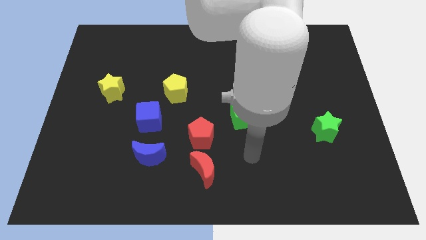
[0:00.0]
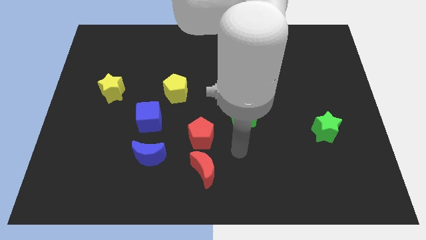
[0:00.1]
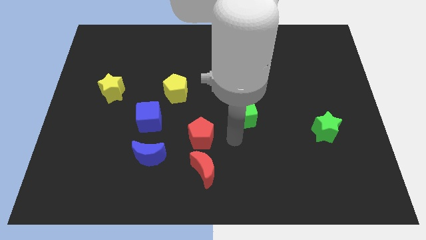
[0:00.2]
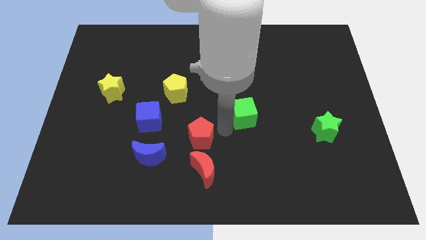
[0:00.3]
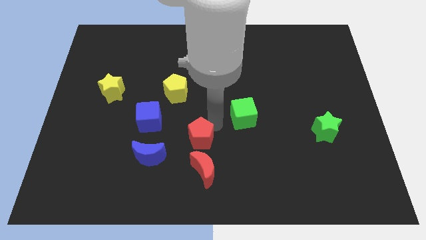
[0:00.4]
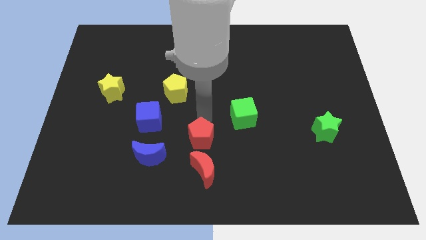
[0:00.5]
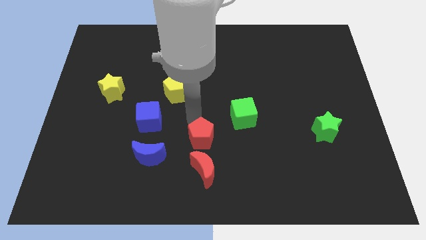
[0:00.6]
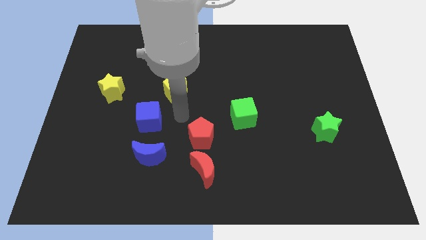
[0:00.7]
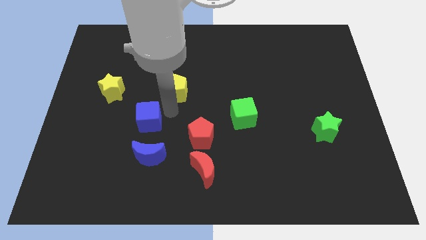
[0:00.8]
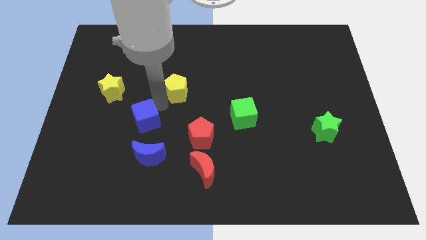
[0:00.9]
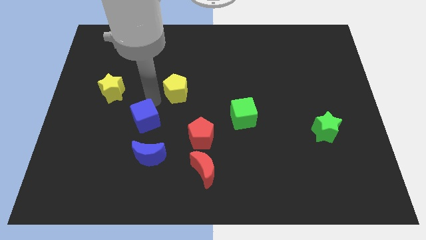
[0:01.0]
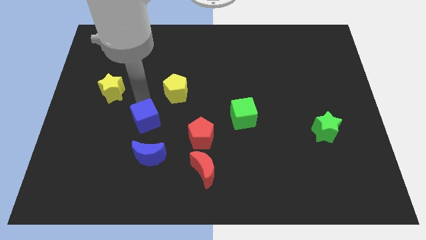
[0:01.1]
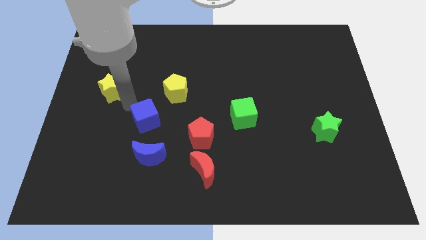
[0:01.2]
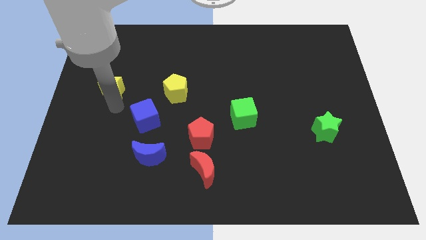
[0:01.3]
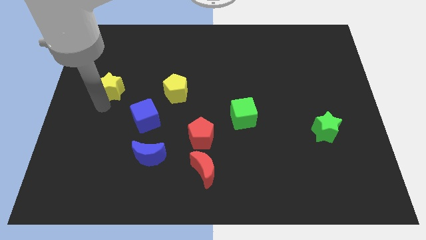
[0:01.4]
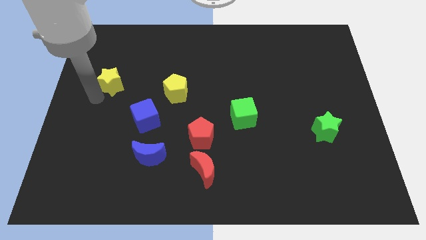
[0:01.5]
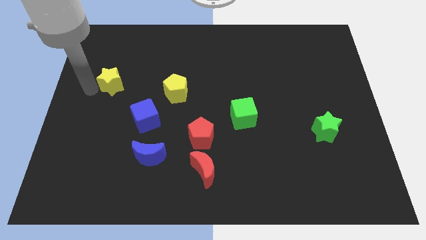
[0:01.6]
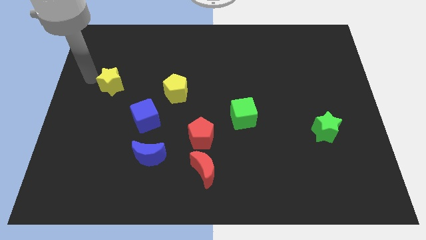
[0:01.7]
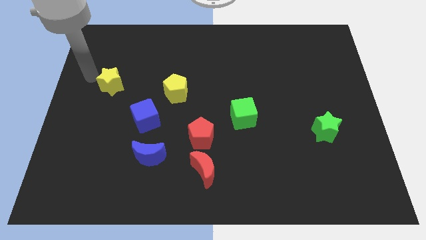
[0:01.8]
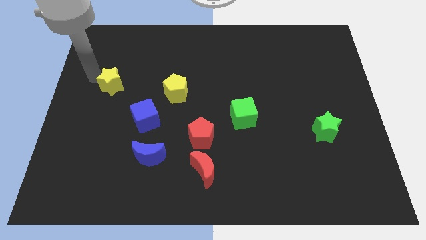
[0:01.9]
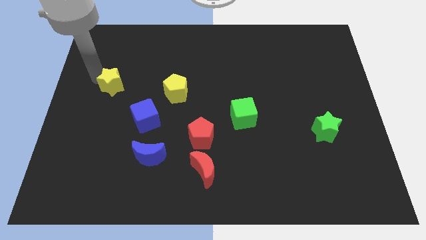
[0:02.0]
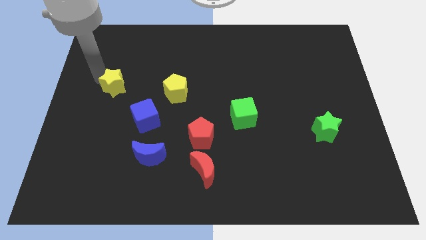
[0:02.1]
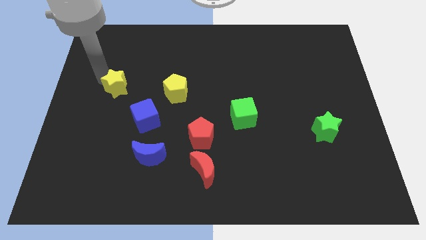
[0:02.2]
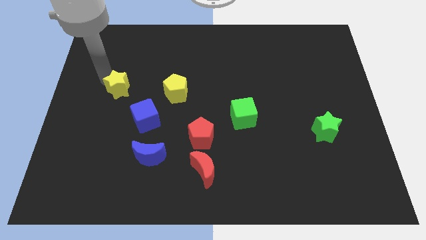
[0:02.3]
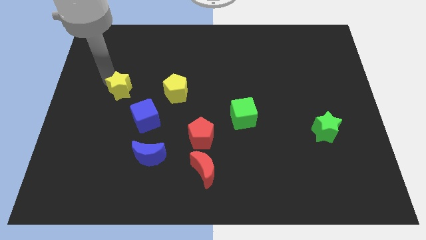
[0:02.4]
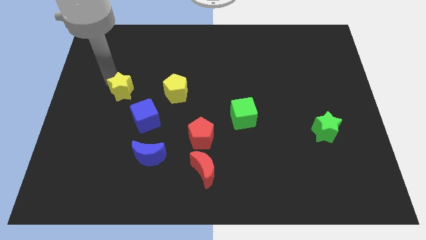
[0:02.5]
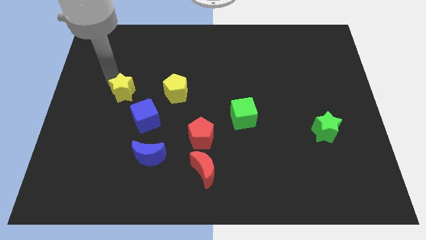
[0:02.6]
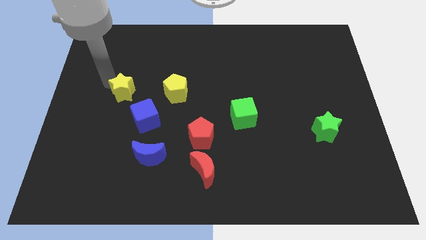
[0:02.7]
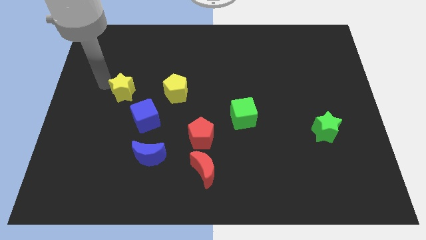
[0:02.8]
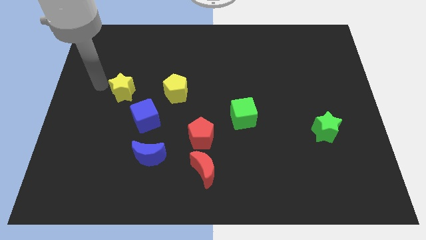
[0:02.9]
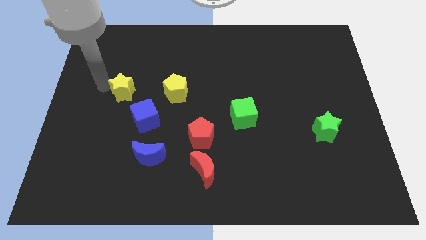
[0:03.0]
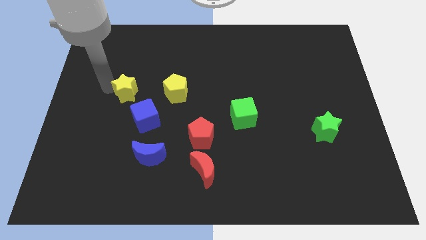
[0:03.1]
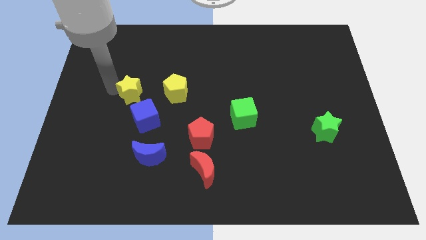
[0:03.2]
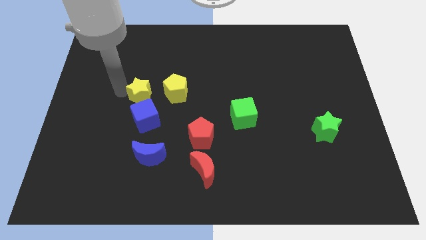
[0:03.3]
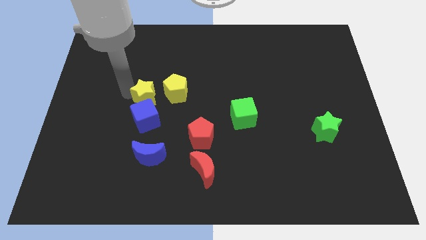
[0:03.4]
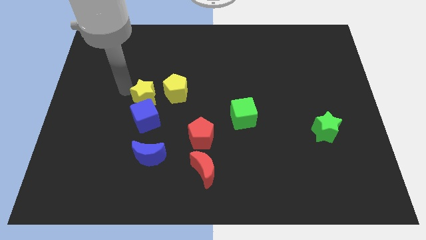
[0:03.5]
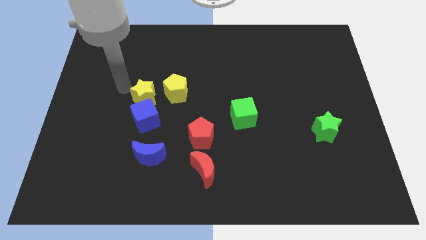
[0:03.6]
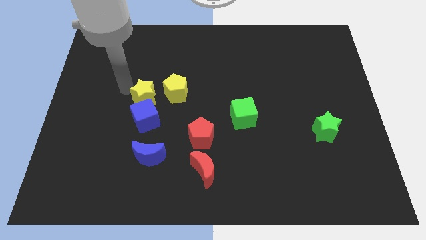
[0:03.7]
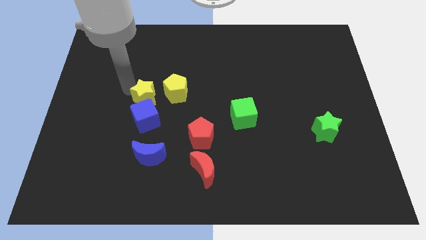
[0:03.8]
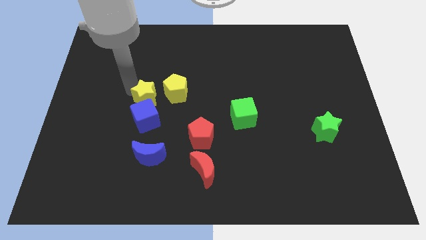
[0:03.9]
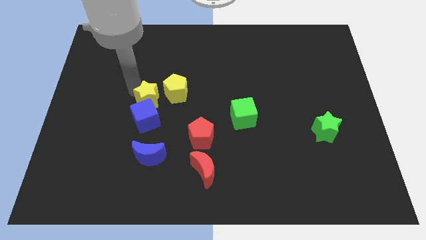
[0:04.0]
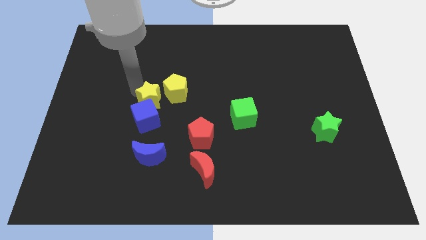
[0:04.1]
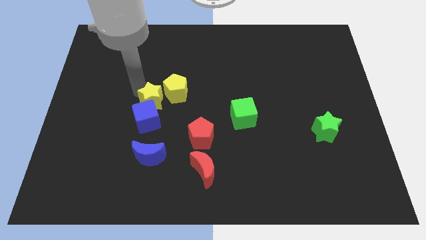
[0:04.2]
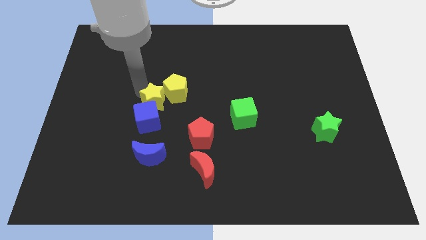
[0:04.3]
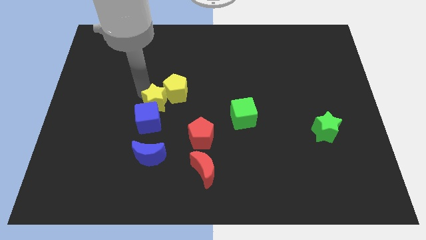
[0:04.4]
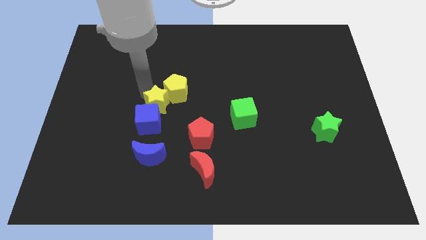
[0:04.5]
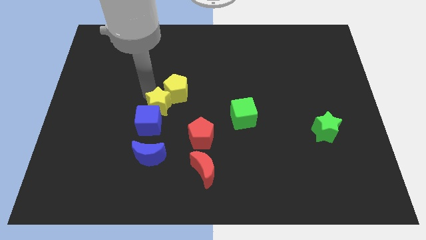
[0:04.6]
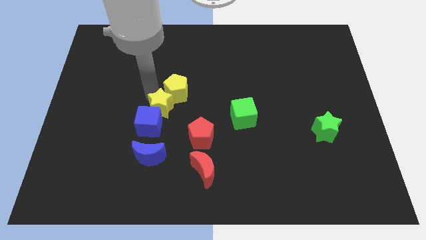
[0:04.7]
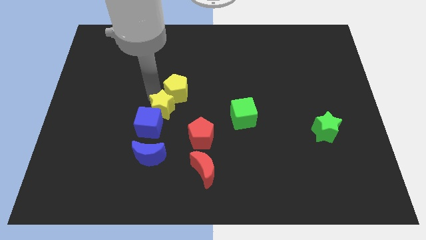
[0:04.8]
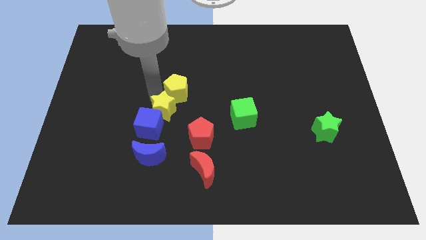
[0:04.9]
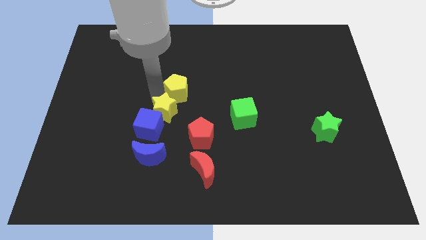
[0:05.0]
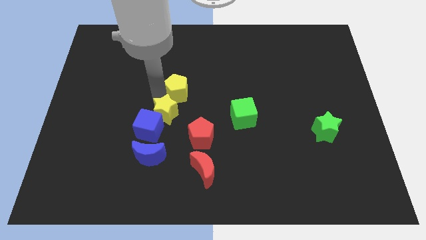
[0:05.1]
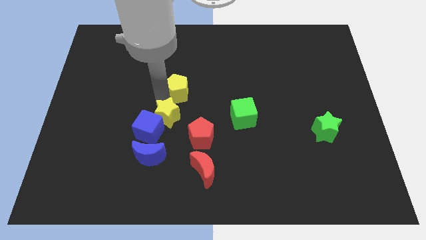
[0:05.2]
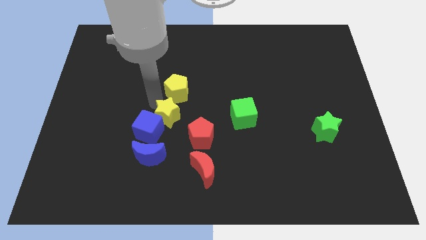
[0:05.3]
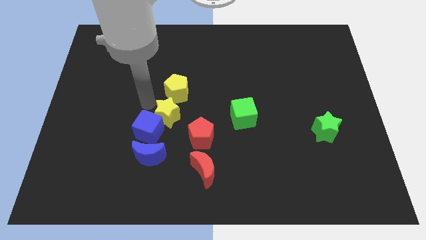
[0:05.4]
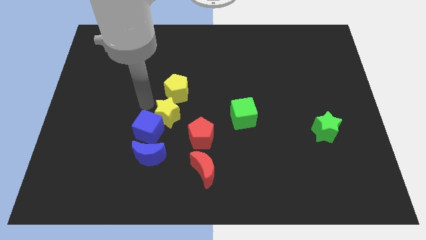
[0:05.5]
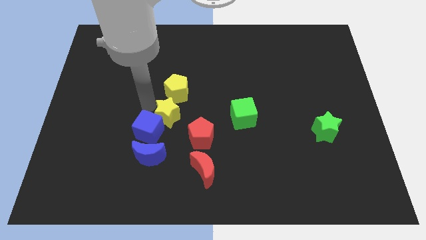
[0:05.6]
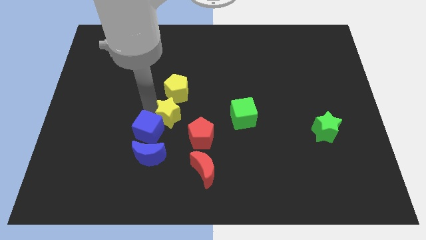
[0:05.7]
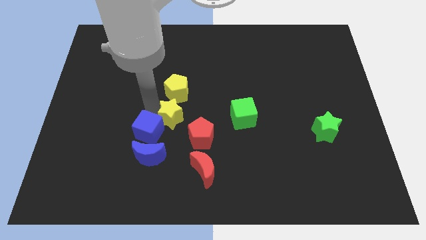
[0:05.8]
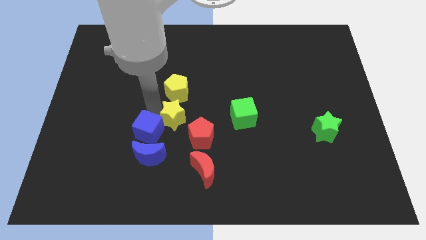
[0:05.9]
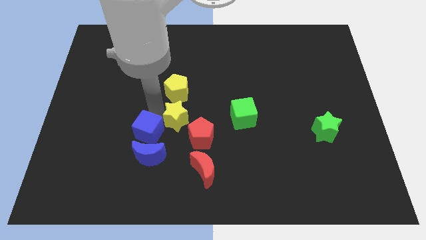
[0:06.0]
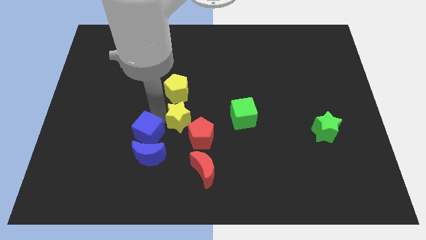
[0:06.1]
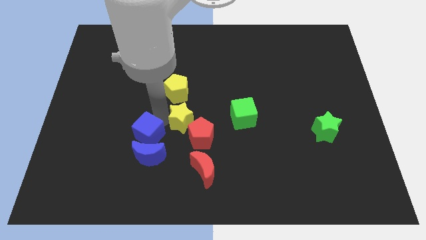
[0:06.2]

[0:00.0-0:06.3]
slide the yellow star to the red pentagon

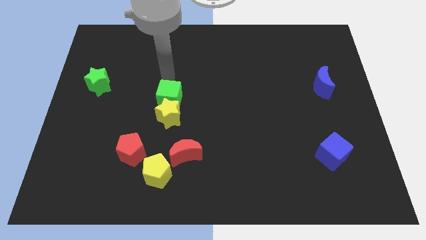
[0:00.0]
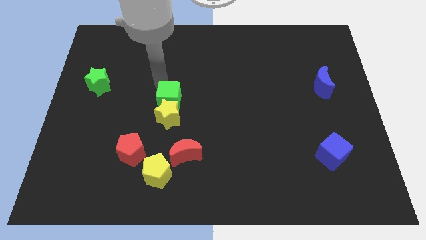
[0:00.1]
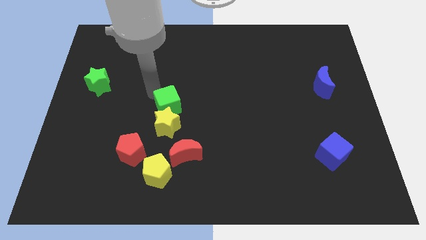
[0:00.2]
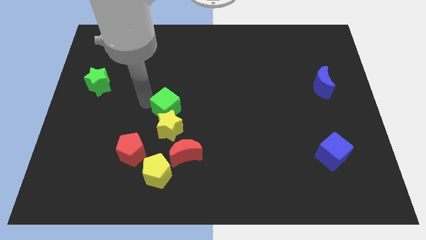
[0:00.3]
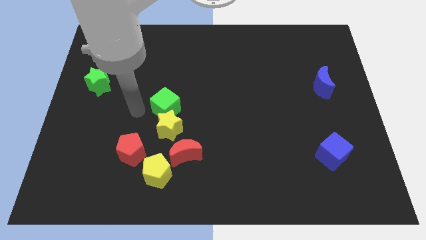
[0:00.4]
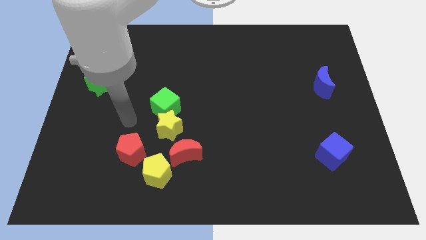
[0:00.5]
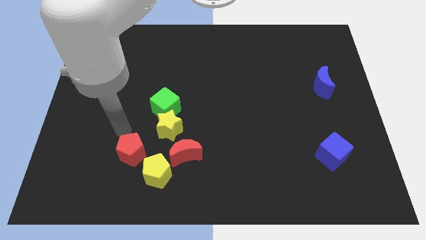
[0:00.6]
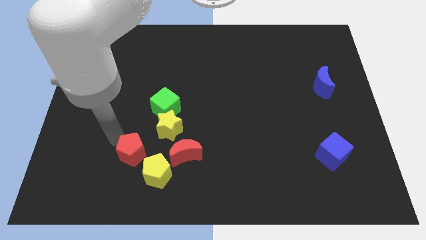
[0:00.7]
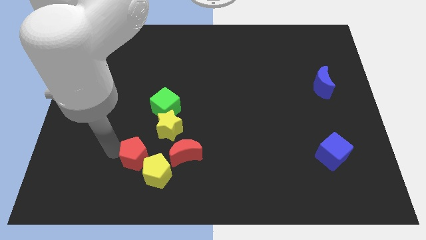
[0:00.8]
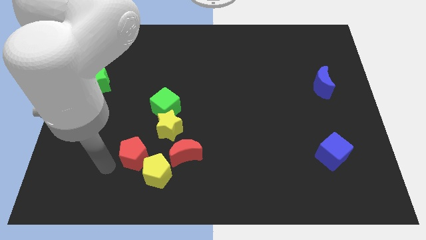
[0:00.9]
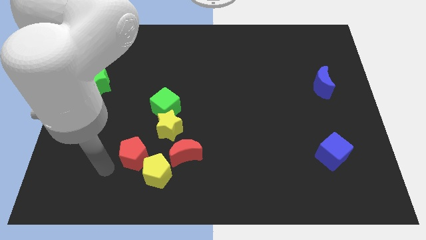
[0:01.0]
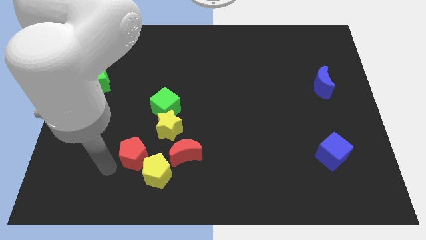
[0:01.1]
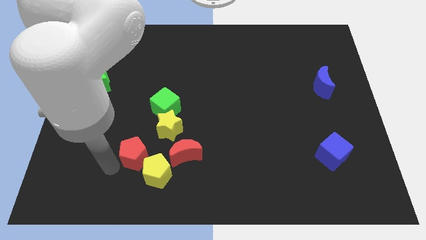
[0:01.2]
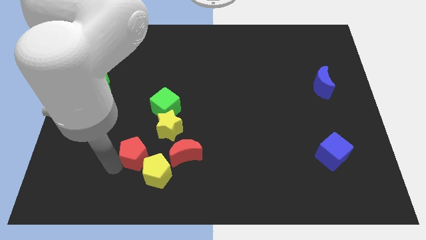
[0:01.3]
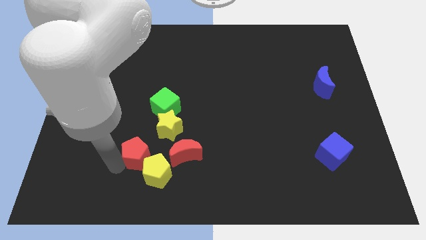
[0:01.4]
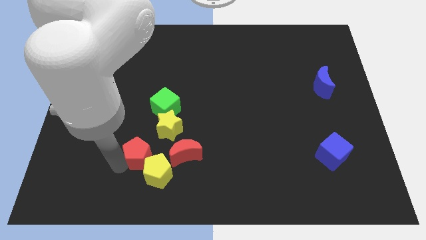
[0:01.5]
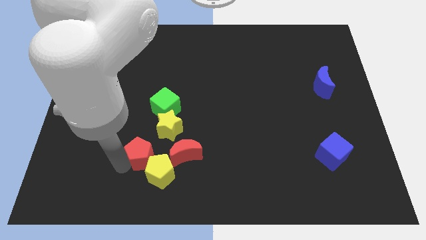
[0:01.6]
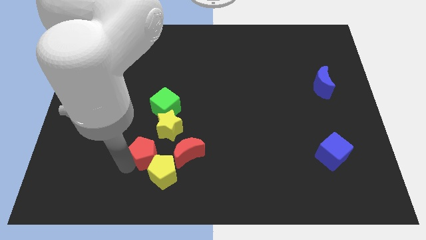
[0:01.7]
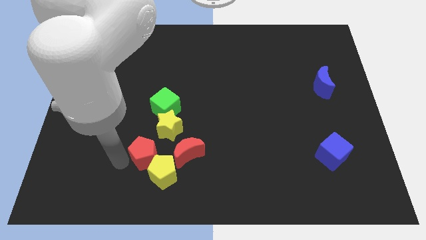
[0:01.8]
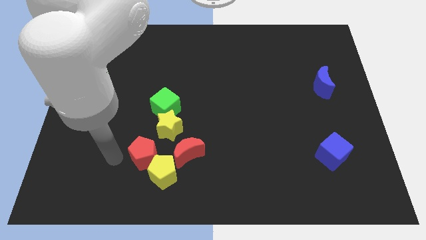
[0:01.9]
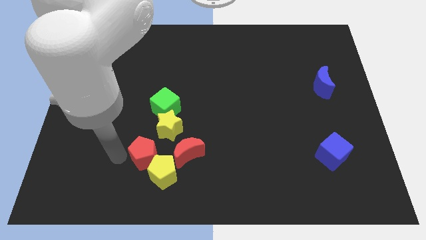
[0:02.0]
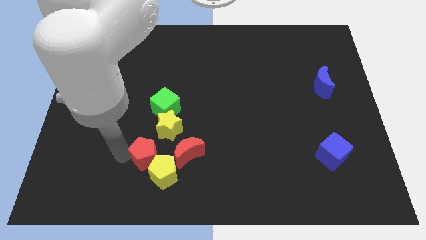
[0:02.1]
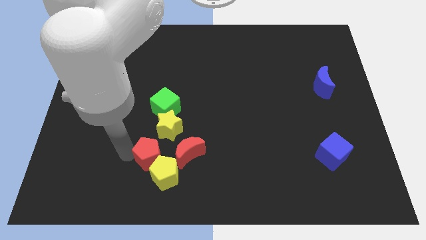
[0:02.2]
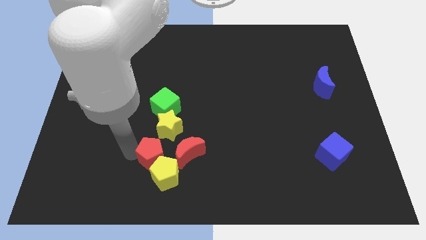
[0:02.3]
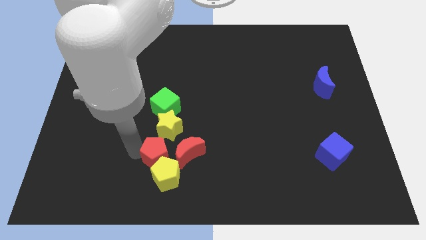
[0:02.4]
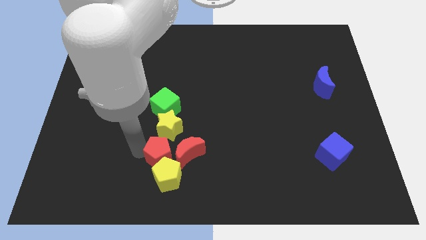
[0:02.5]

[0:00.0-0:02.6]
push the red pentagon towards the red moon
